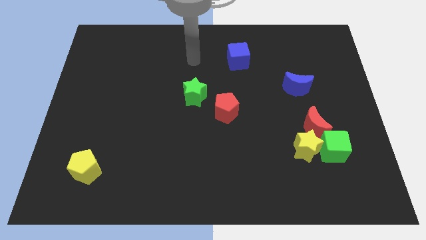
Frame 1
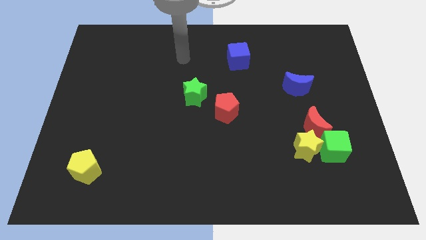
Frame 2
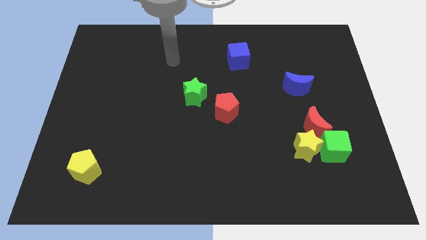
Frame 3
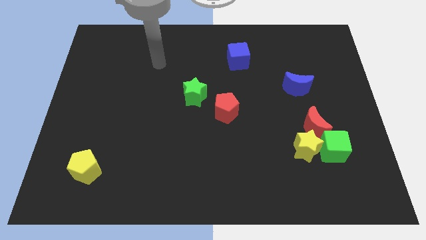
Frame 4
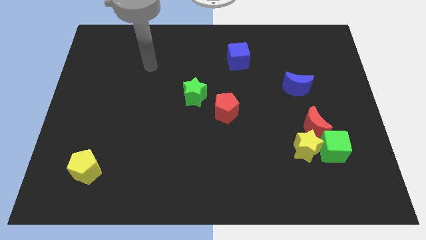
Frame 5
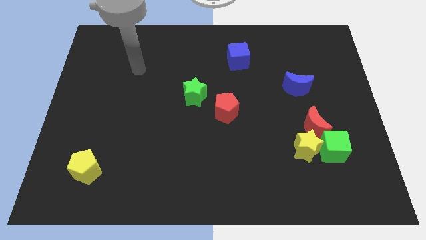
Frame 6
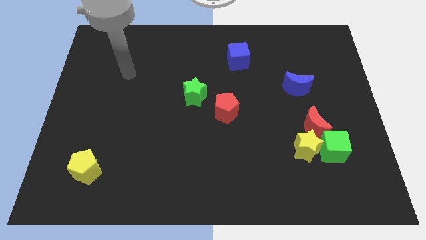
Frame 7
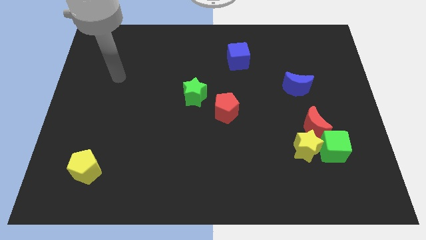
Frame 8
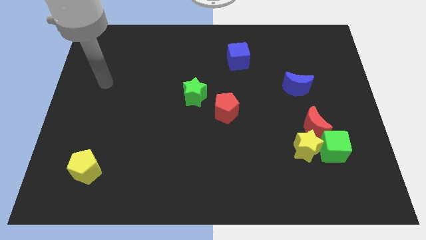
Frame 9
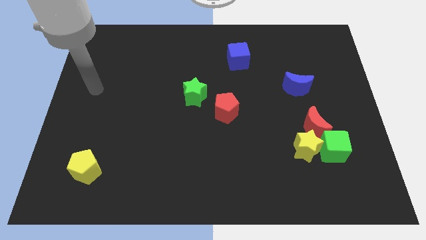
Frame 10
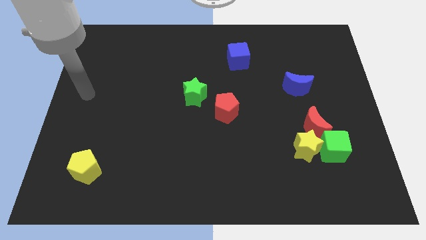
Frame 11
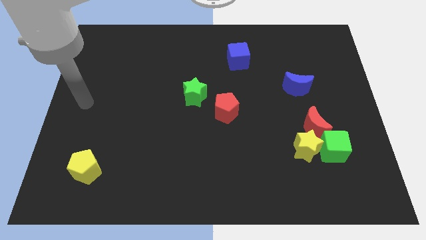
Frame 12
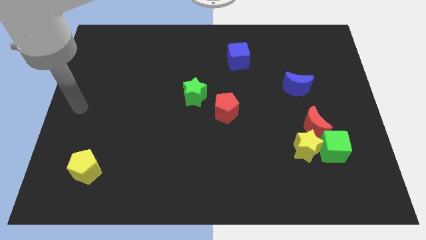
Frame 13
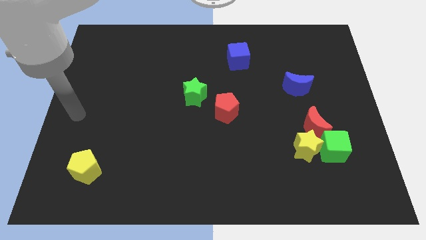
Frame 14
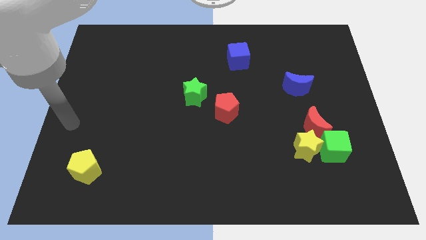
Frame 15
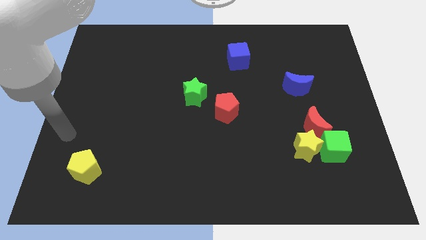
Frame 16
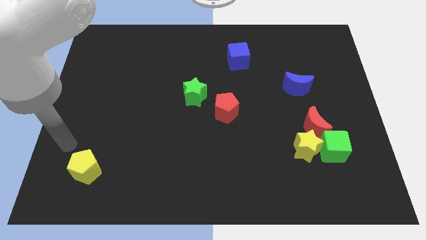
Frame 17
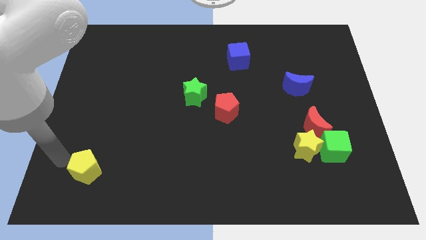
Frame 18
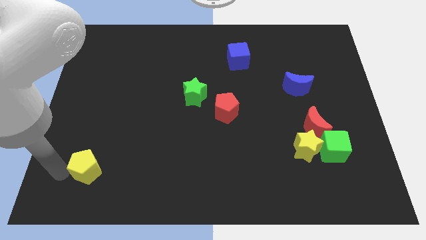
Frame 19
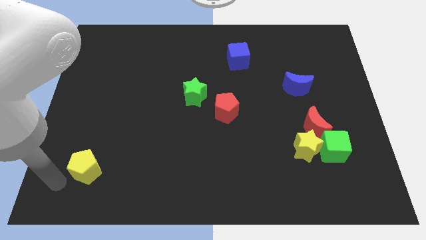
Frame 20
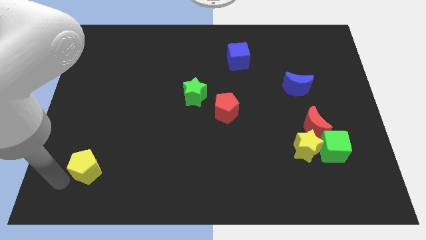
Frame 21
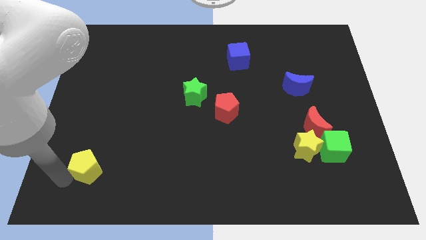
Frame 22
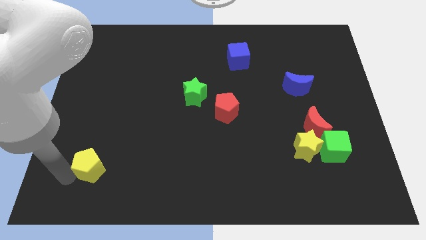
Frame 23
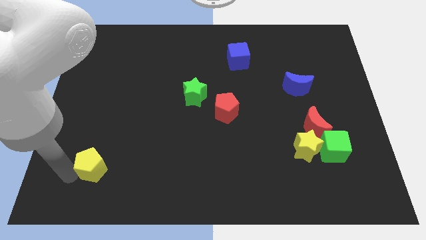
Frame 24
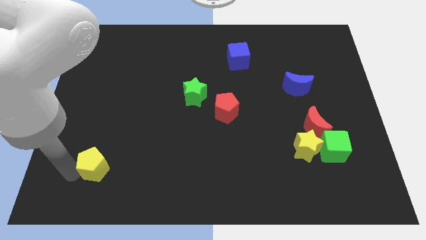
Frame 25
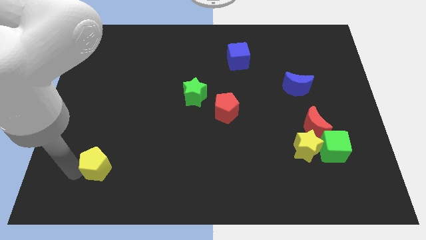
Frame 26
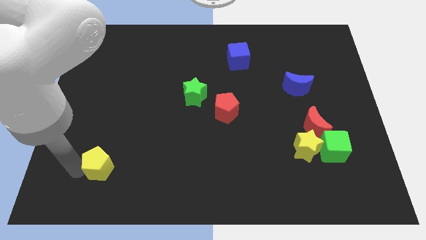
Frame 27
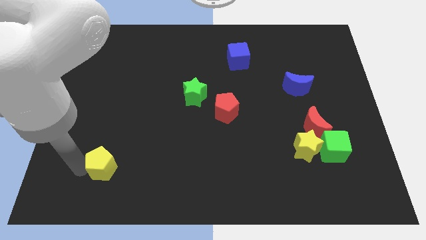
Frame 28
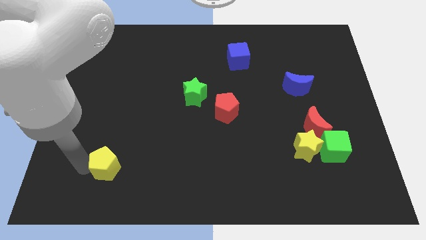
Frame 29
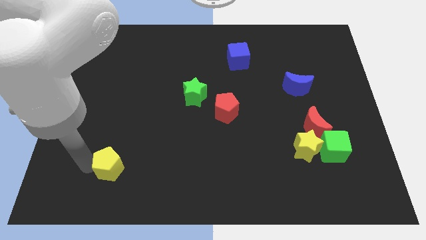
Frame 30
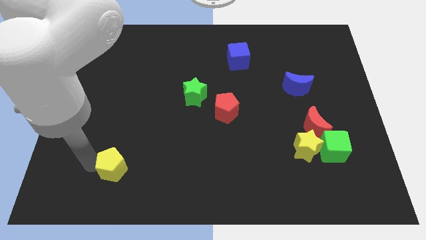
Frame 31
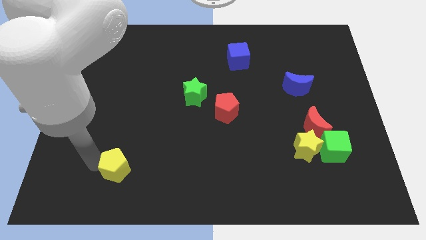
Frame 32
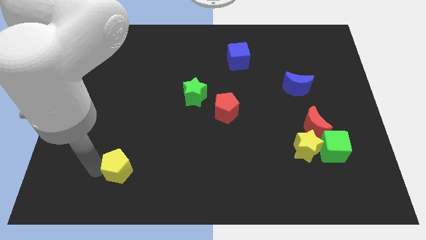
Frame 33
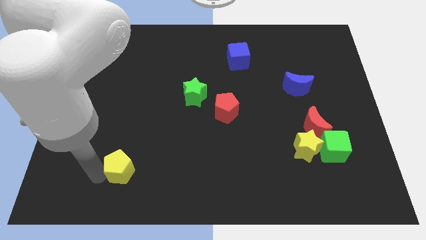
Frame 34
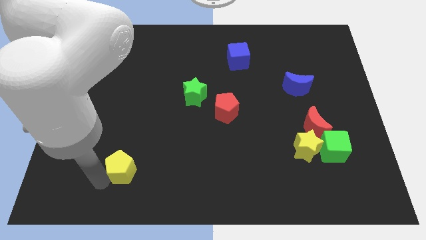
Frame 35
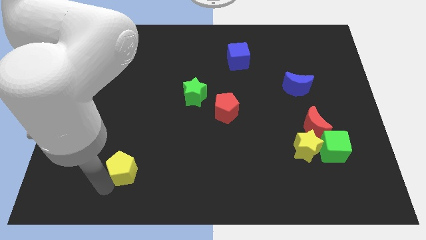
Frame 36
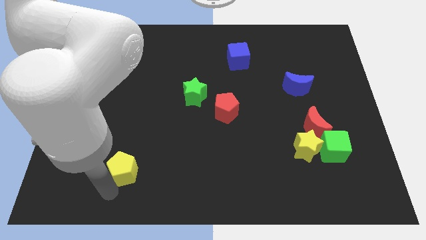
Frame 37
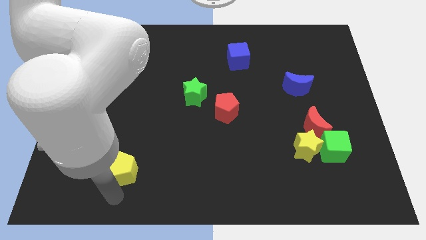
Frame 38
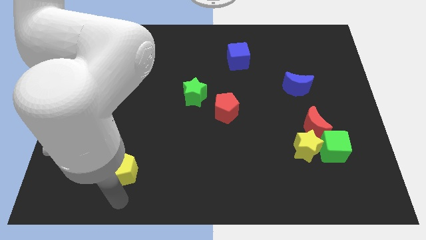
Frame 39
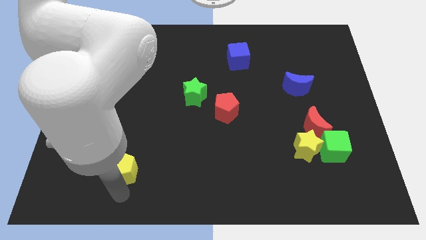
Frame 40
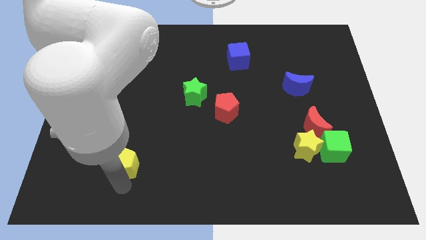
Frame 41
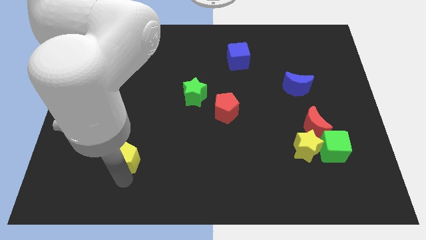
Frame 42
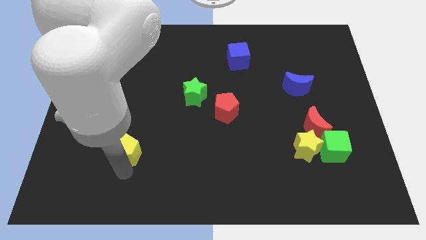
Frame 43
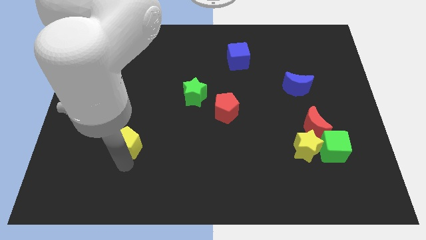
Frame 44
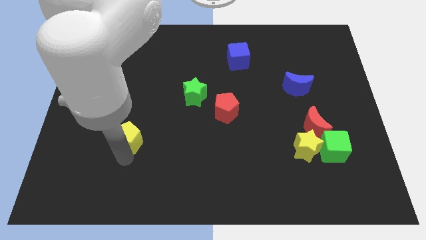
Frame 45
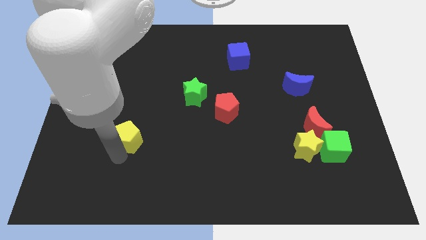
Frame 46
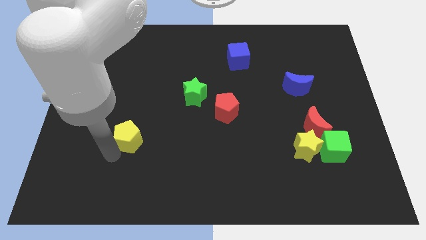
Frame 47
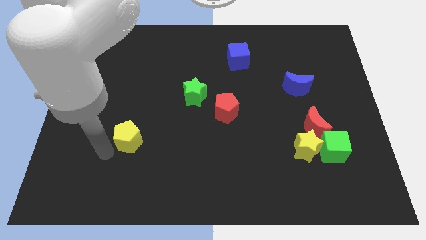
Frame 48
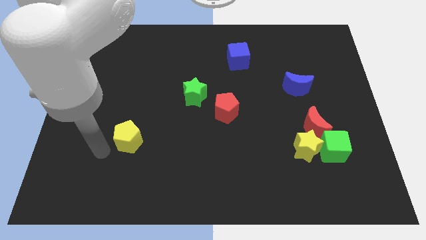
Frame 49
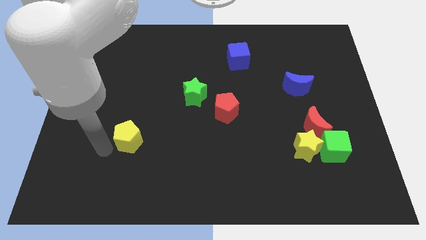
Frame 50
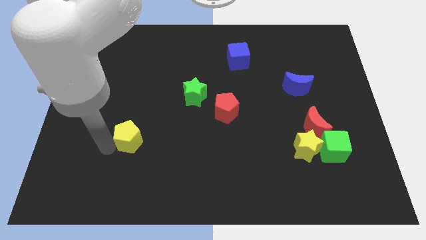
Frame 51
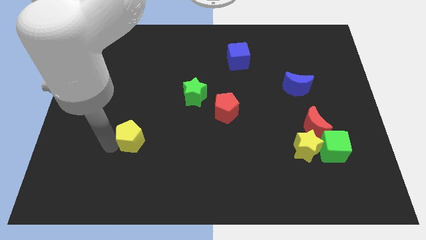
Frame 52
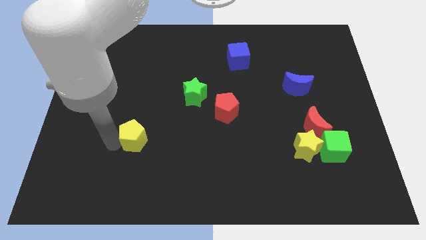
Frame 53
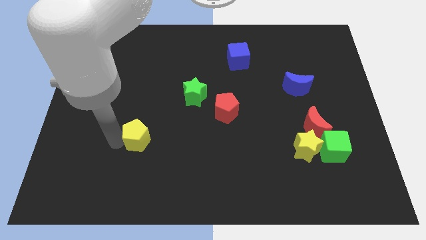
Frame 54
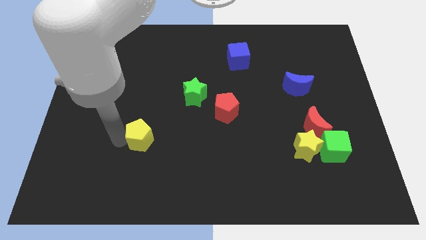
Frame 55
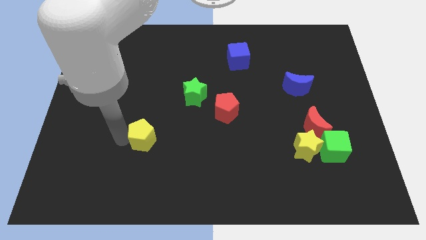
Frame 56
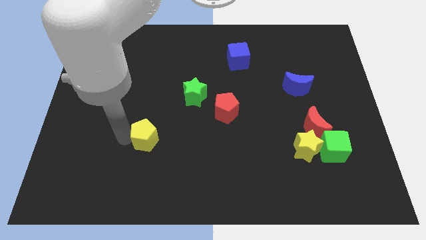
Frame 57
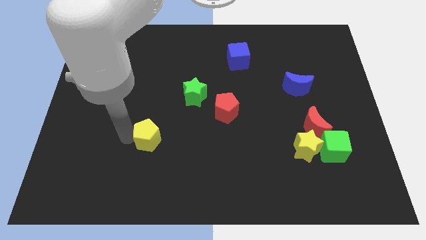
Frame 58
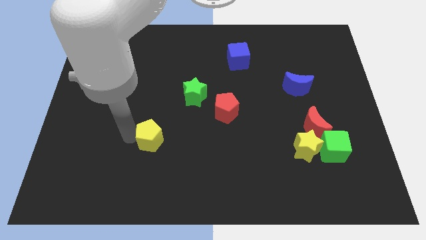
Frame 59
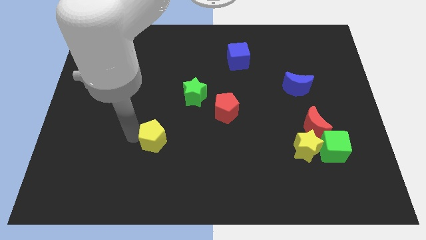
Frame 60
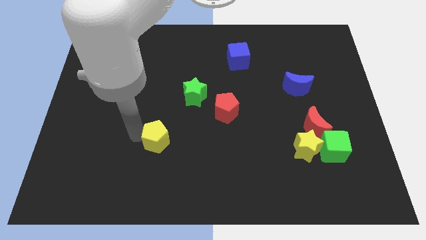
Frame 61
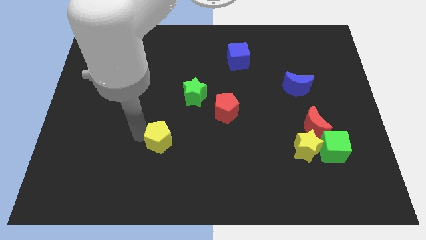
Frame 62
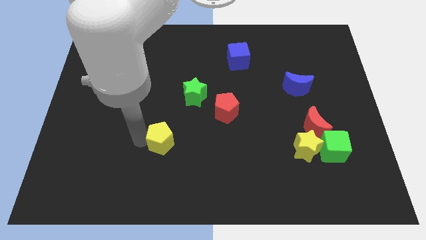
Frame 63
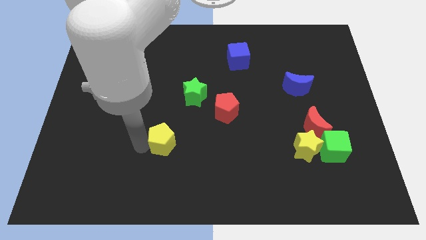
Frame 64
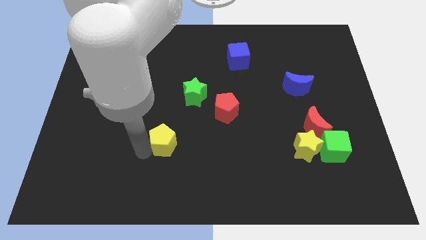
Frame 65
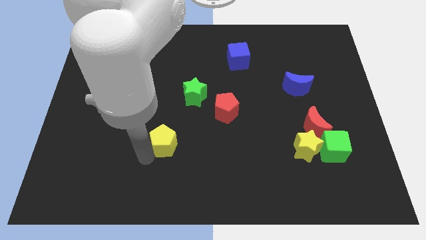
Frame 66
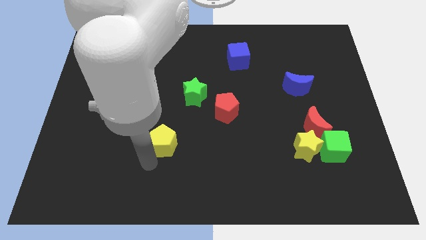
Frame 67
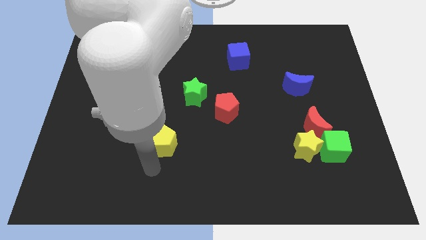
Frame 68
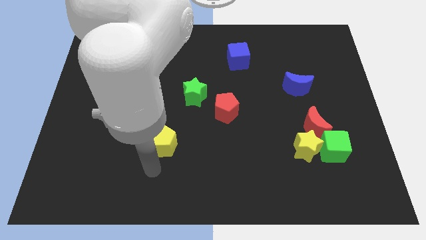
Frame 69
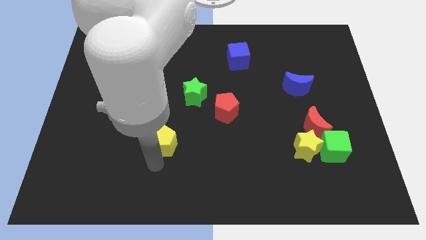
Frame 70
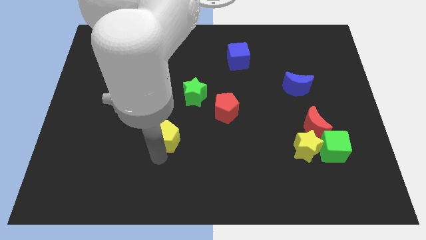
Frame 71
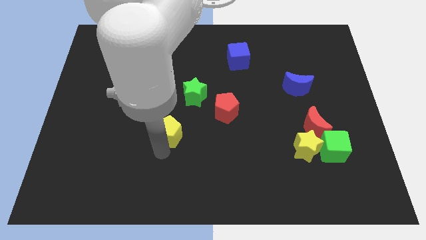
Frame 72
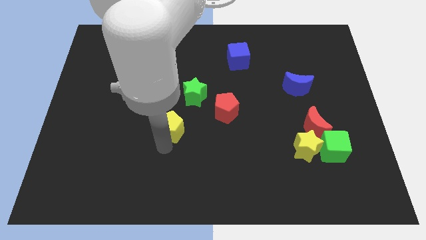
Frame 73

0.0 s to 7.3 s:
slide the yellow pentagon to the center of the board
